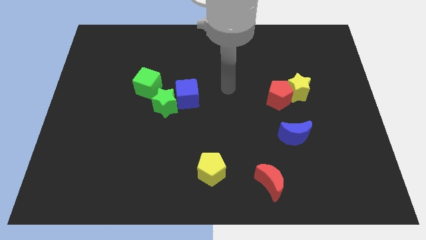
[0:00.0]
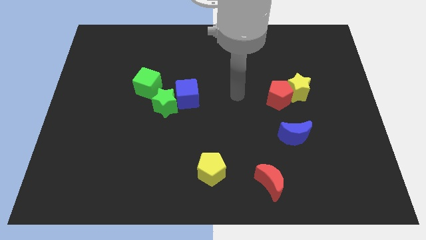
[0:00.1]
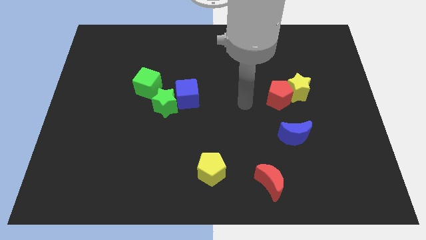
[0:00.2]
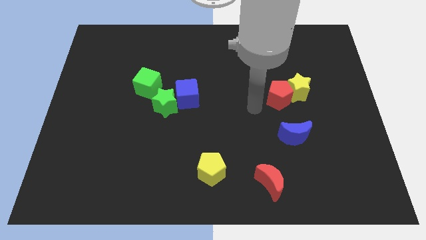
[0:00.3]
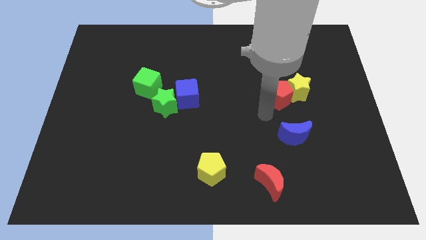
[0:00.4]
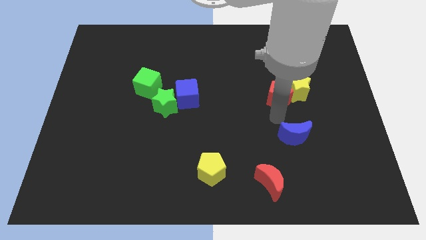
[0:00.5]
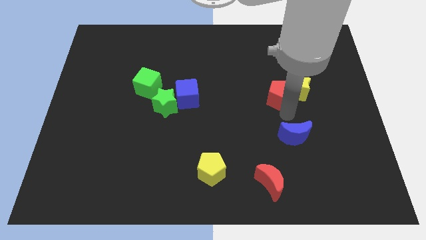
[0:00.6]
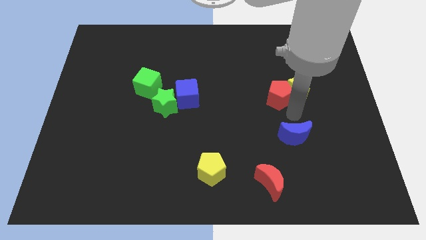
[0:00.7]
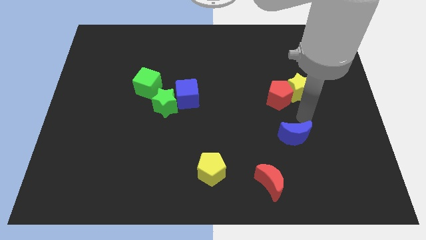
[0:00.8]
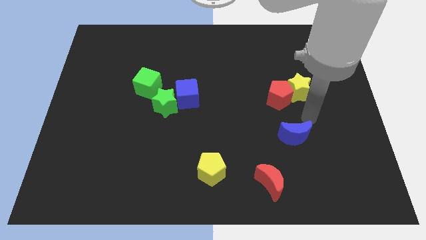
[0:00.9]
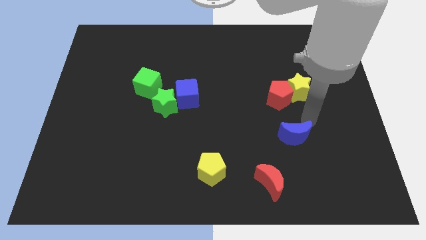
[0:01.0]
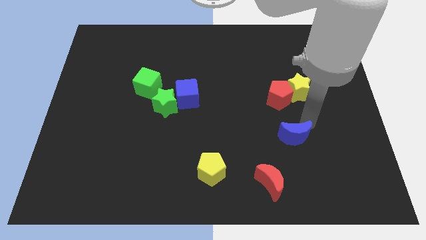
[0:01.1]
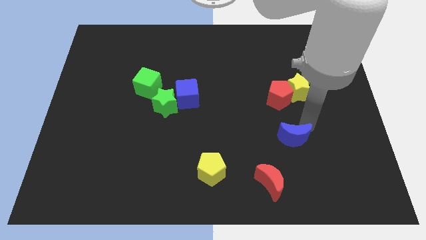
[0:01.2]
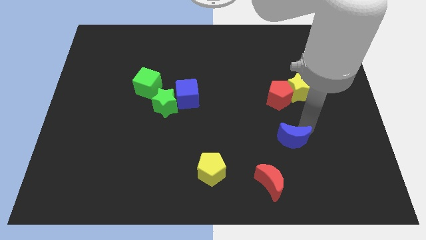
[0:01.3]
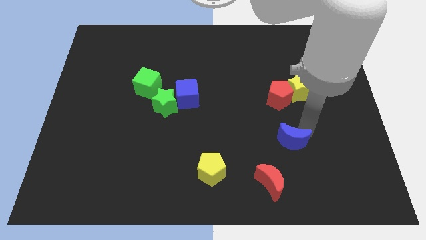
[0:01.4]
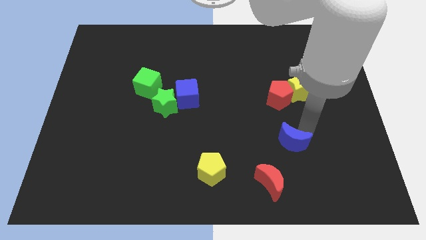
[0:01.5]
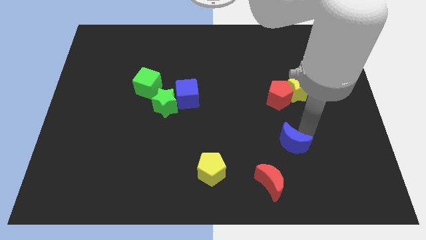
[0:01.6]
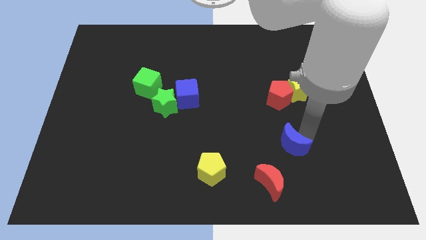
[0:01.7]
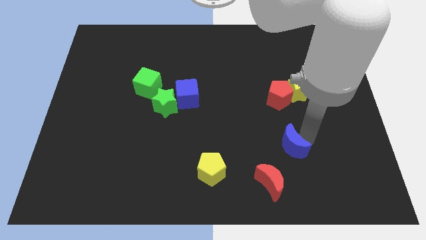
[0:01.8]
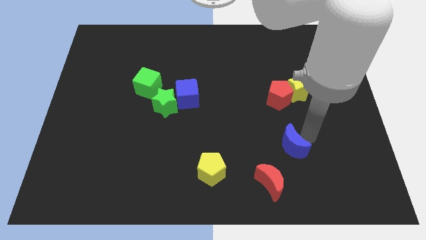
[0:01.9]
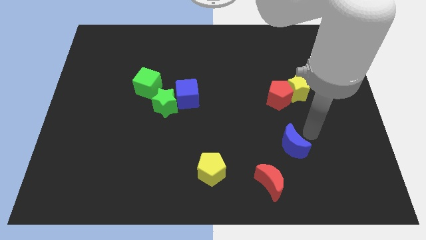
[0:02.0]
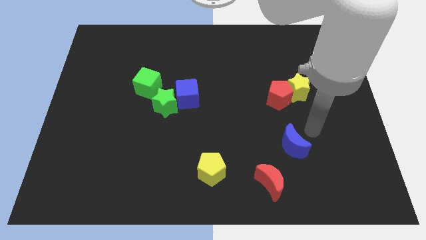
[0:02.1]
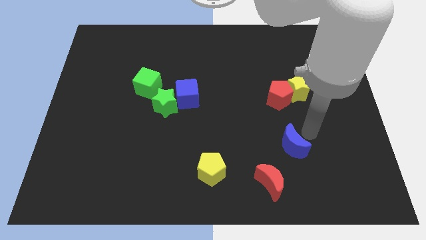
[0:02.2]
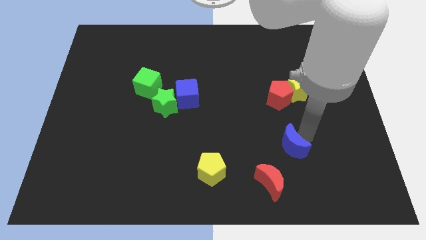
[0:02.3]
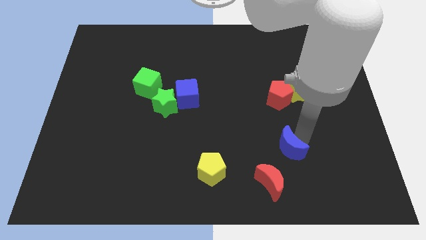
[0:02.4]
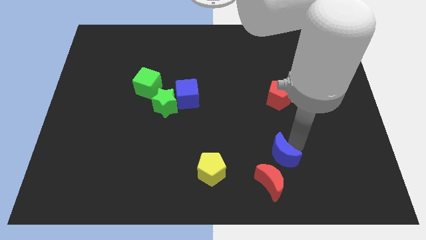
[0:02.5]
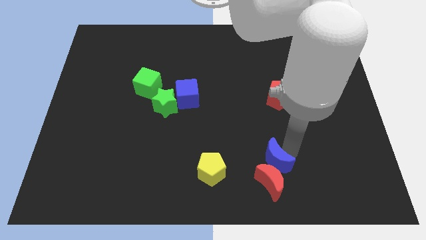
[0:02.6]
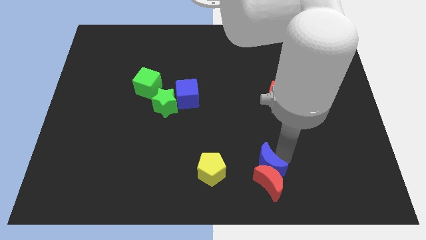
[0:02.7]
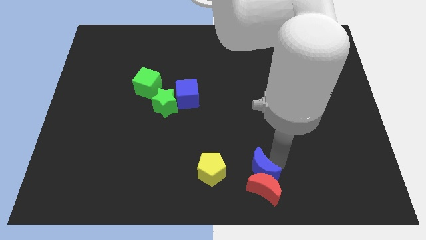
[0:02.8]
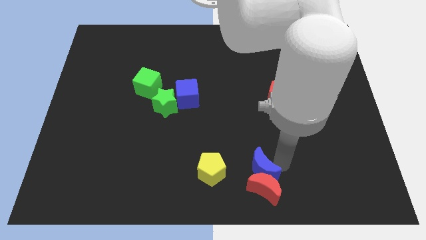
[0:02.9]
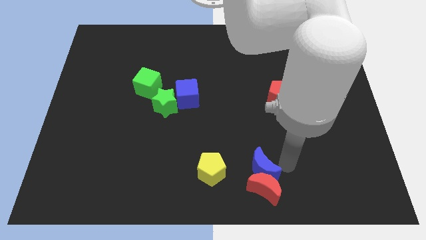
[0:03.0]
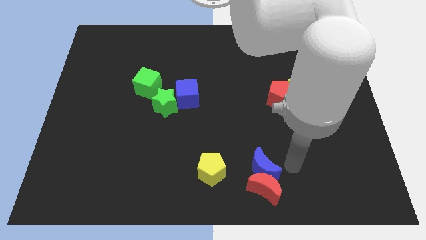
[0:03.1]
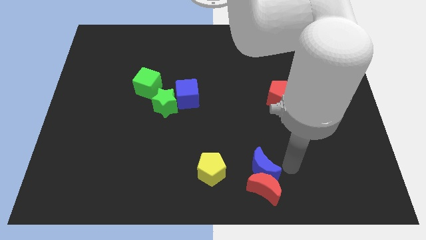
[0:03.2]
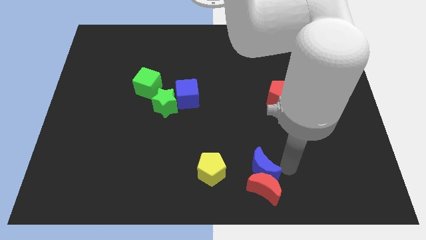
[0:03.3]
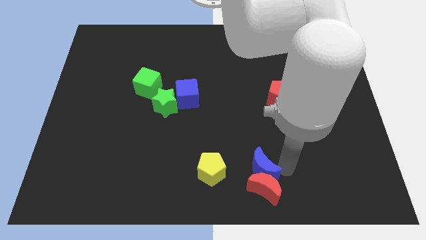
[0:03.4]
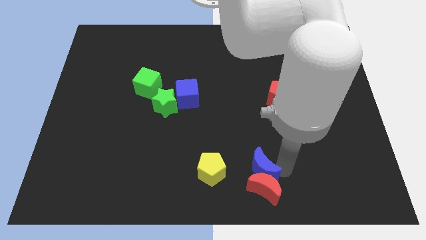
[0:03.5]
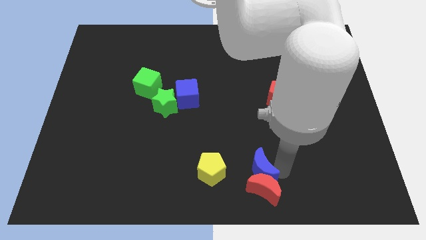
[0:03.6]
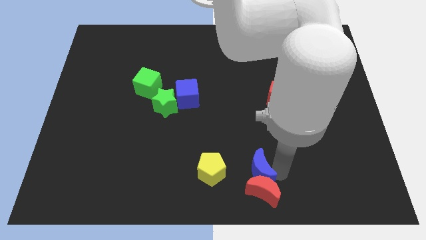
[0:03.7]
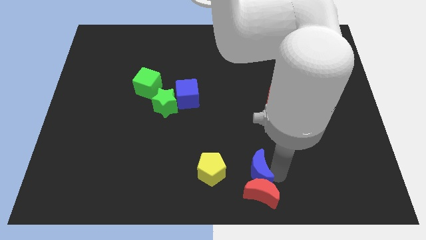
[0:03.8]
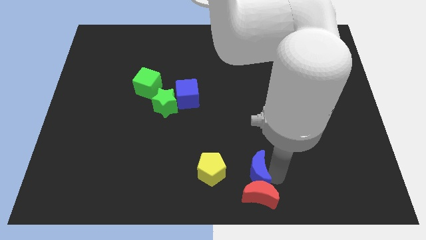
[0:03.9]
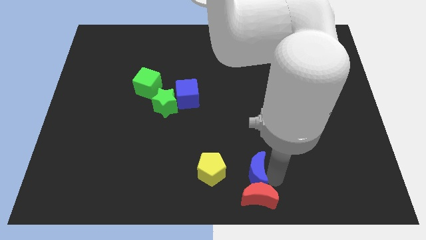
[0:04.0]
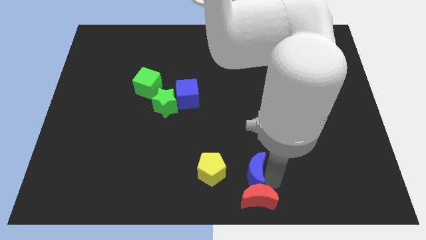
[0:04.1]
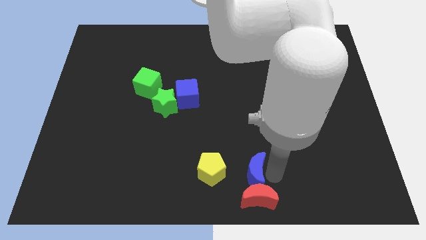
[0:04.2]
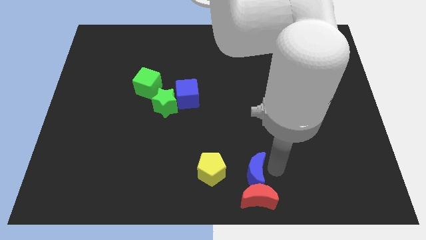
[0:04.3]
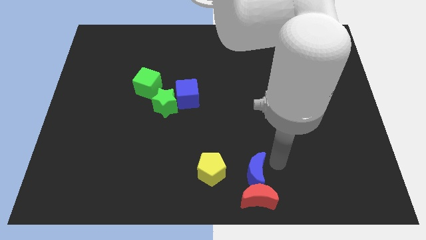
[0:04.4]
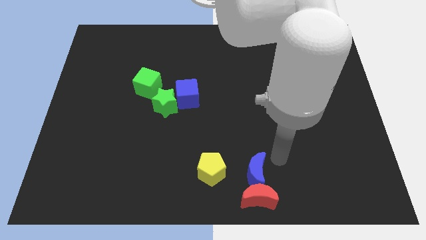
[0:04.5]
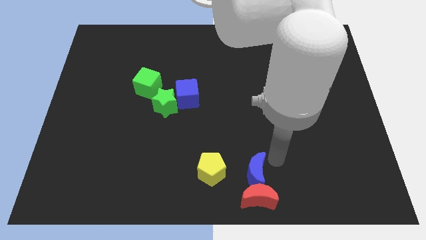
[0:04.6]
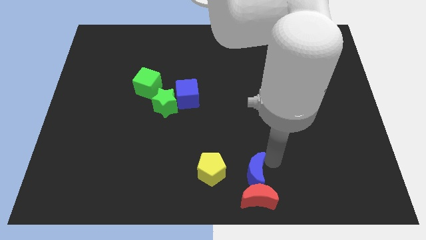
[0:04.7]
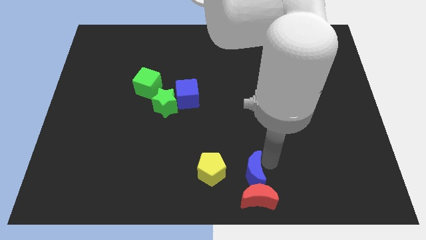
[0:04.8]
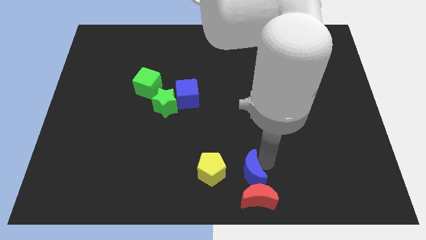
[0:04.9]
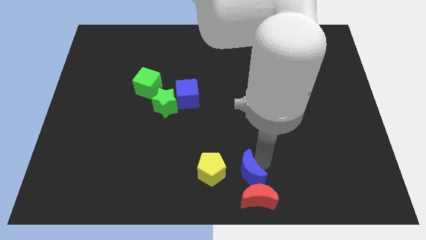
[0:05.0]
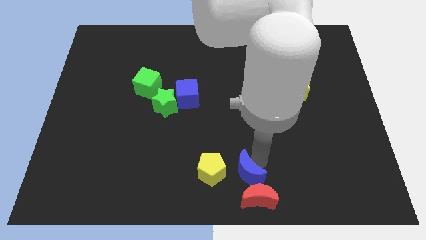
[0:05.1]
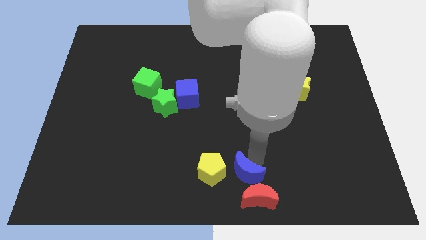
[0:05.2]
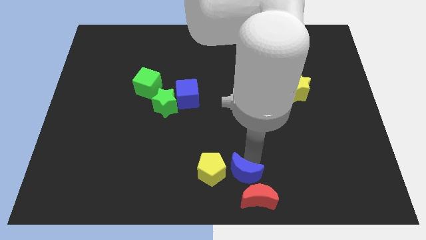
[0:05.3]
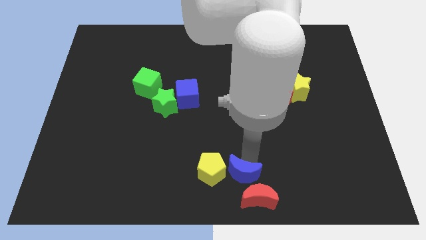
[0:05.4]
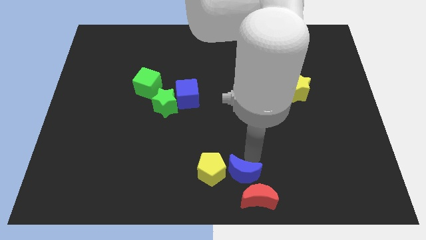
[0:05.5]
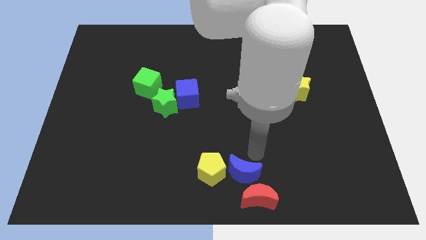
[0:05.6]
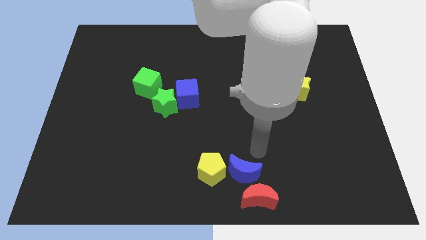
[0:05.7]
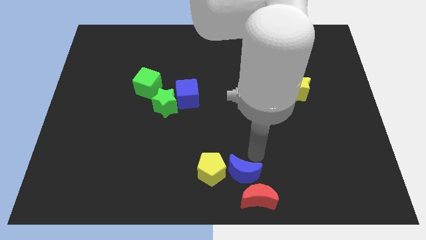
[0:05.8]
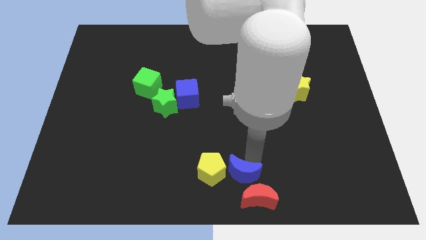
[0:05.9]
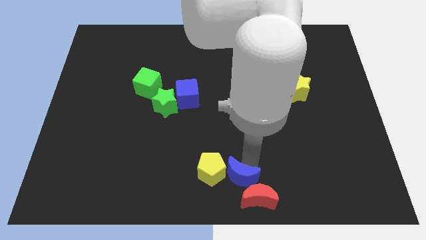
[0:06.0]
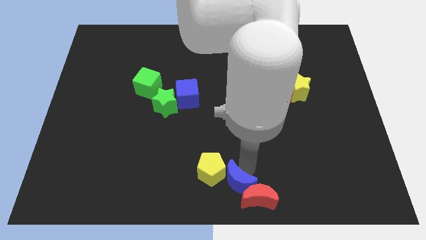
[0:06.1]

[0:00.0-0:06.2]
slide the blue moon just left of the red moon

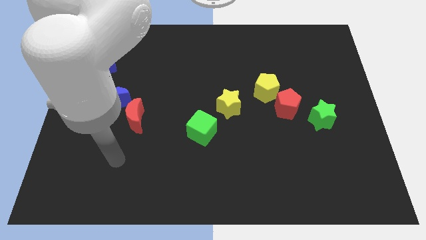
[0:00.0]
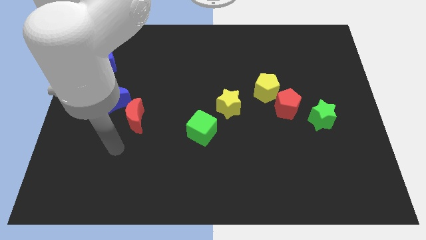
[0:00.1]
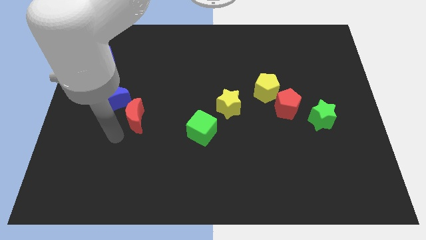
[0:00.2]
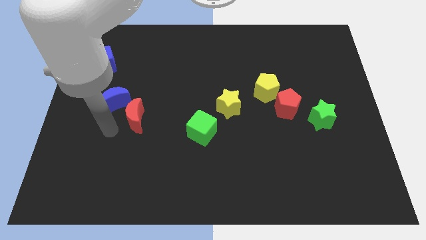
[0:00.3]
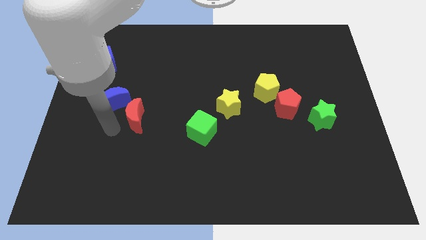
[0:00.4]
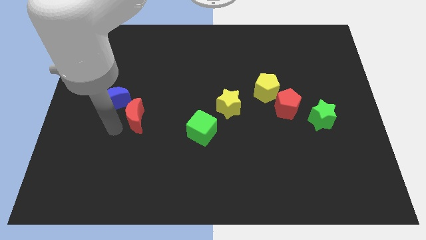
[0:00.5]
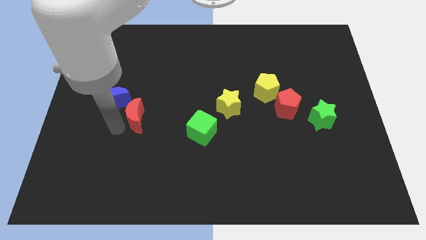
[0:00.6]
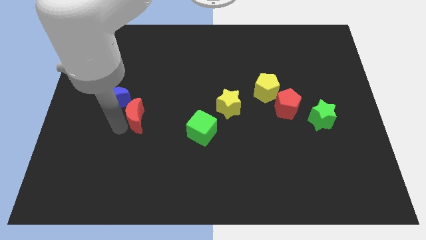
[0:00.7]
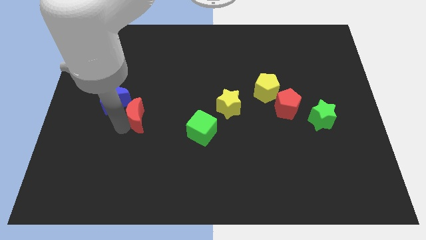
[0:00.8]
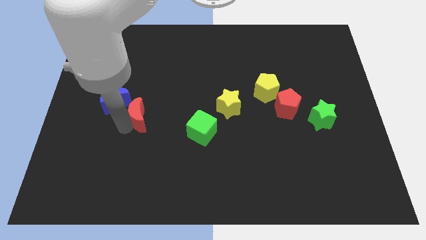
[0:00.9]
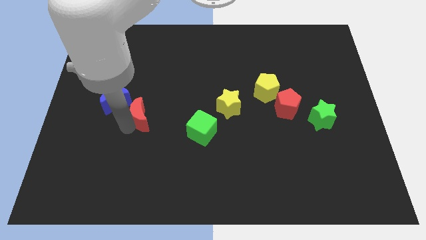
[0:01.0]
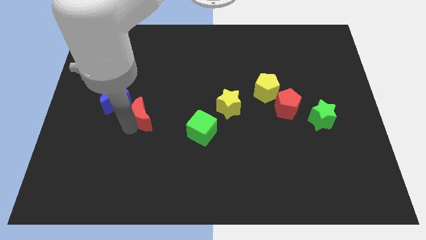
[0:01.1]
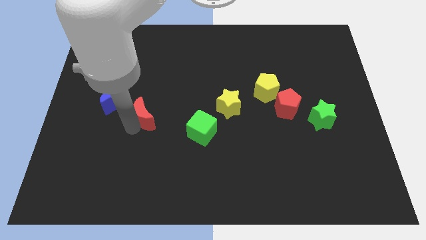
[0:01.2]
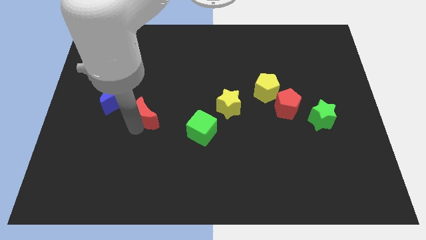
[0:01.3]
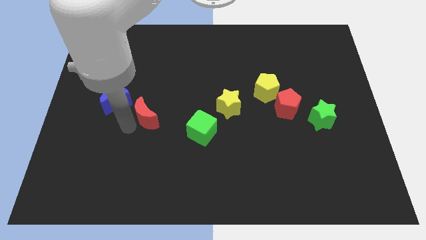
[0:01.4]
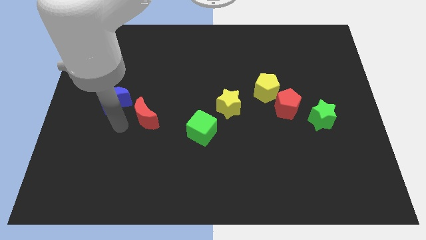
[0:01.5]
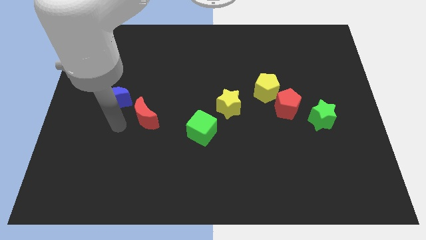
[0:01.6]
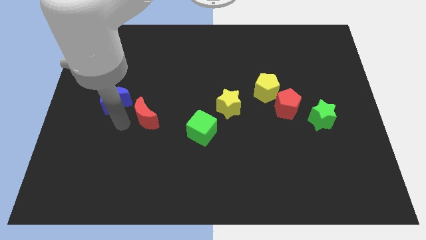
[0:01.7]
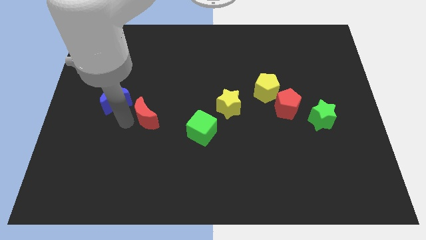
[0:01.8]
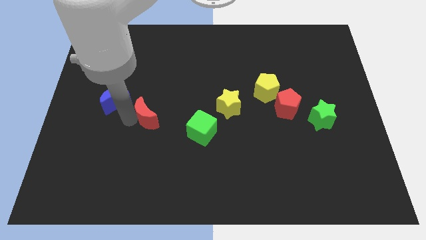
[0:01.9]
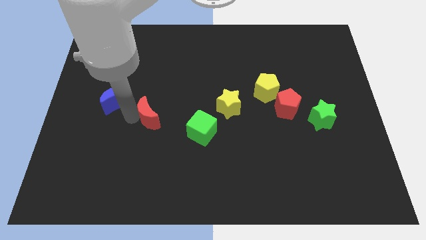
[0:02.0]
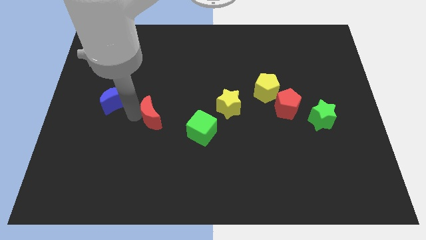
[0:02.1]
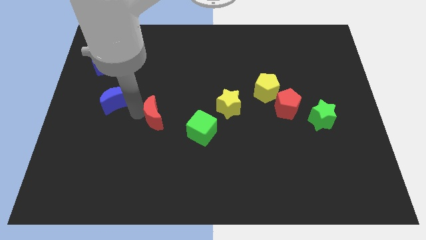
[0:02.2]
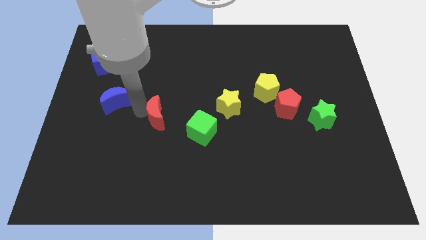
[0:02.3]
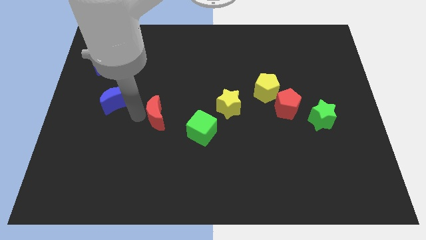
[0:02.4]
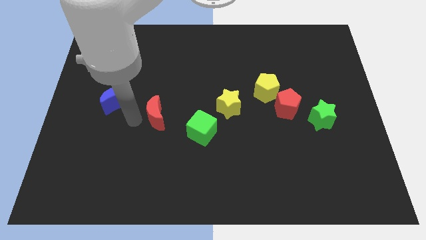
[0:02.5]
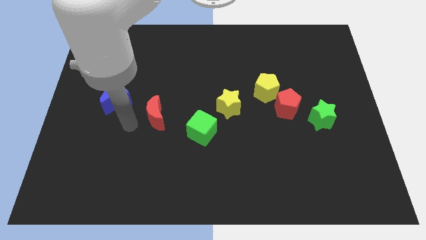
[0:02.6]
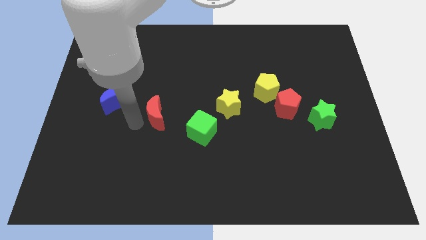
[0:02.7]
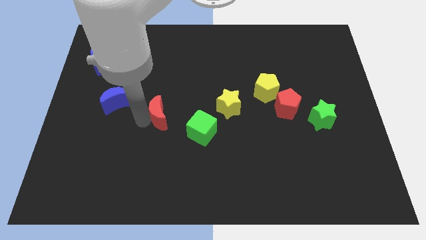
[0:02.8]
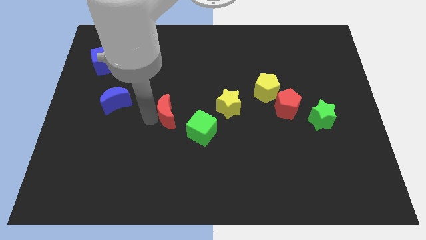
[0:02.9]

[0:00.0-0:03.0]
move the red moon to the left side of the yellow star
